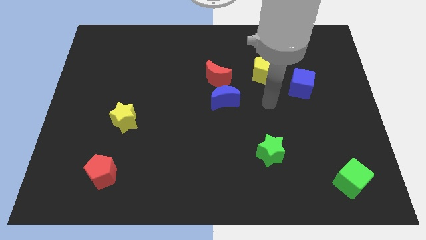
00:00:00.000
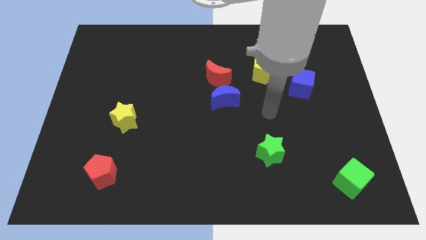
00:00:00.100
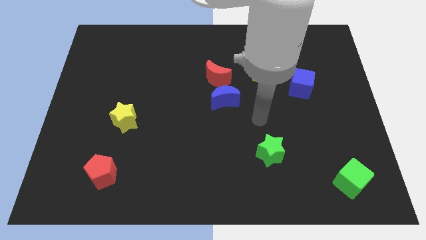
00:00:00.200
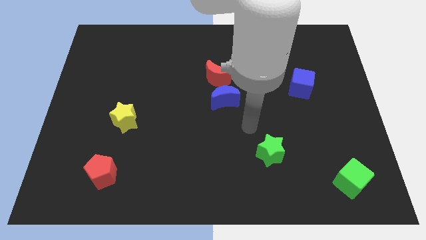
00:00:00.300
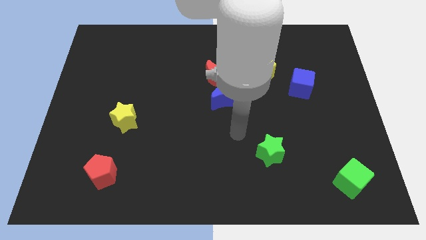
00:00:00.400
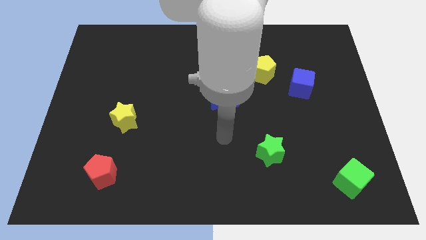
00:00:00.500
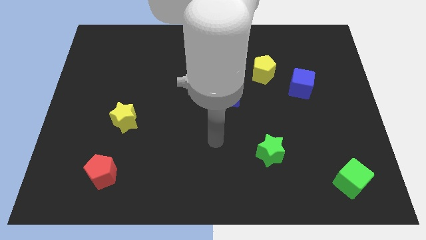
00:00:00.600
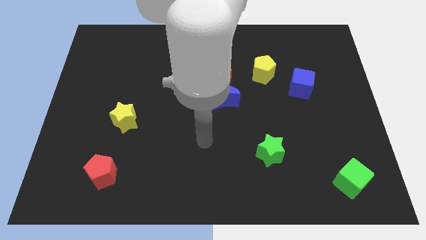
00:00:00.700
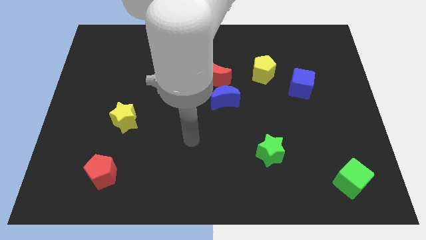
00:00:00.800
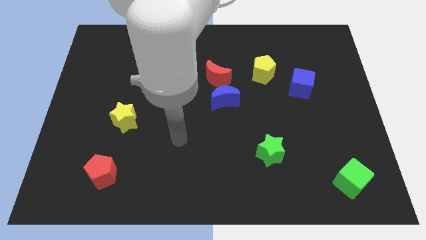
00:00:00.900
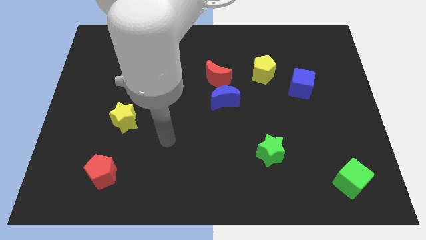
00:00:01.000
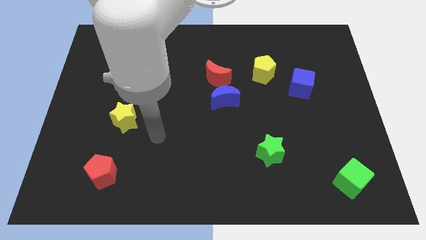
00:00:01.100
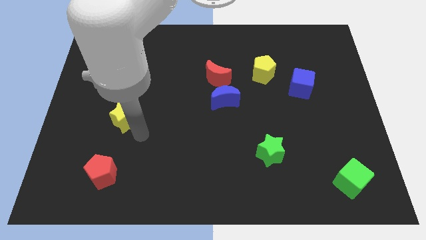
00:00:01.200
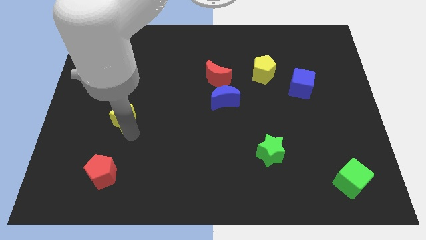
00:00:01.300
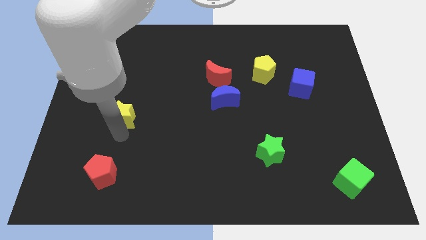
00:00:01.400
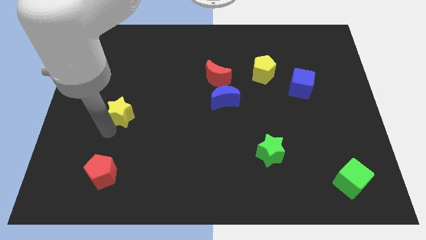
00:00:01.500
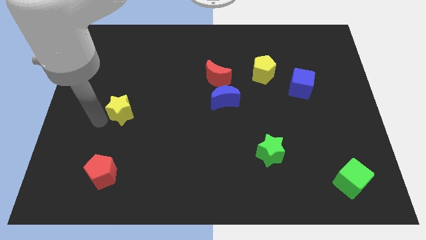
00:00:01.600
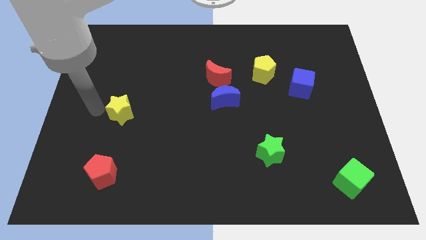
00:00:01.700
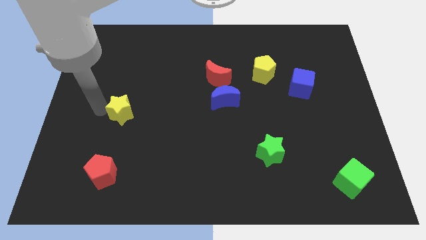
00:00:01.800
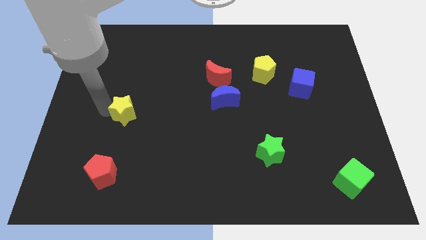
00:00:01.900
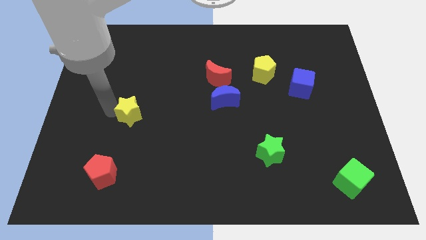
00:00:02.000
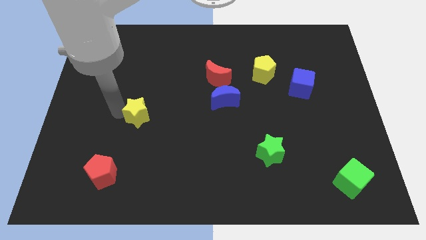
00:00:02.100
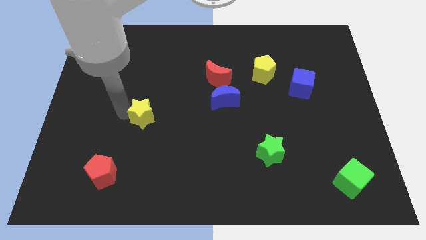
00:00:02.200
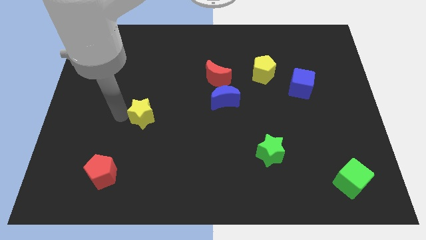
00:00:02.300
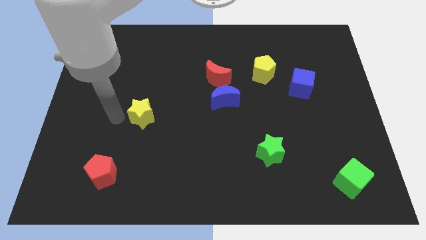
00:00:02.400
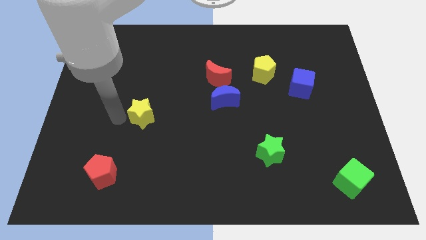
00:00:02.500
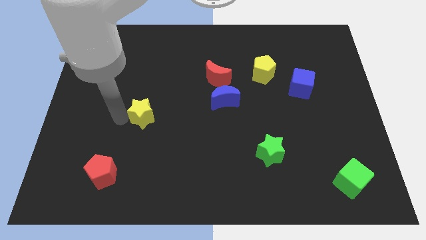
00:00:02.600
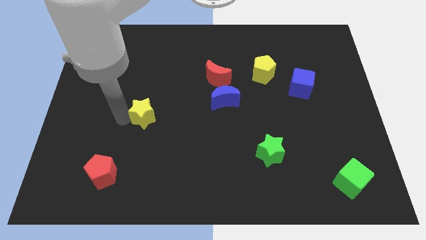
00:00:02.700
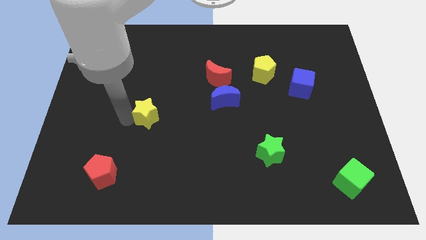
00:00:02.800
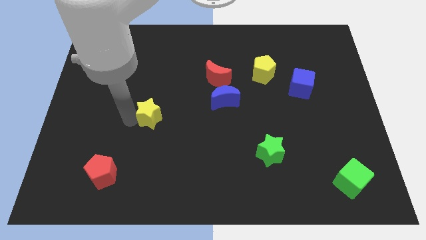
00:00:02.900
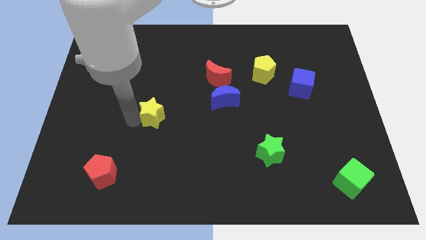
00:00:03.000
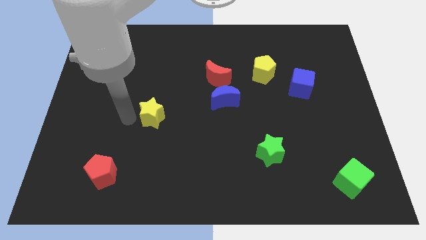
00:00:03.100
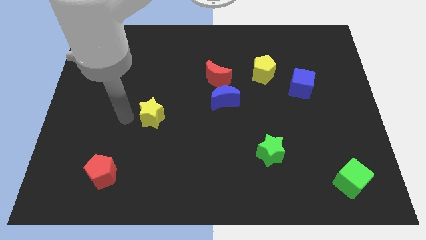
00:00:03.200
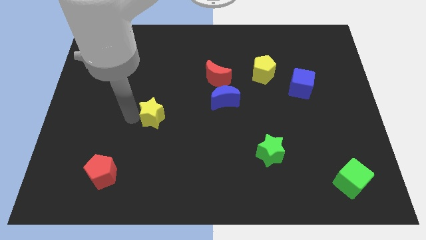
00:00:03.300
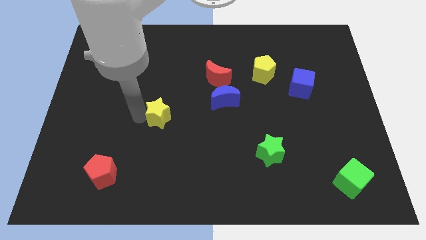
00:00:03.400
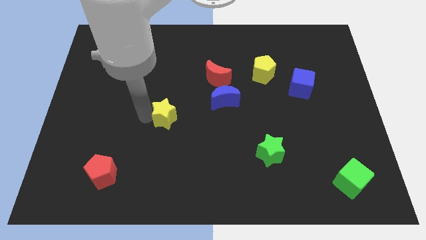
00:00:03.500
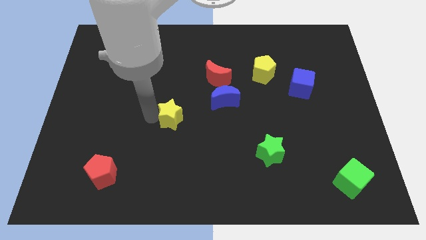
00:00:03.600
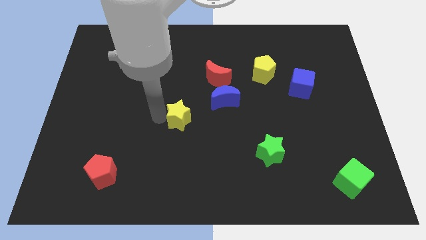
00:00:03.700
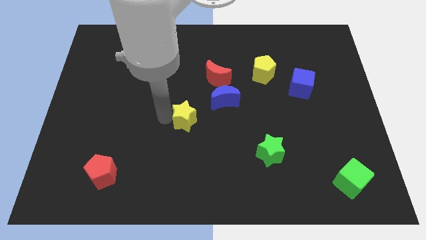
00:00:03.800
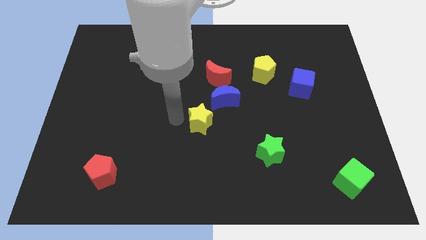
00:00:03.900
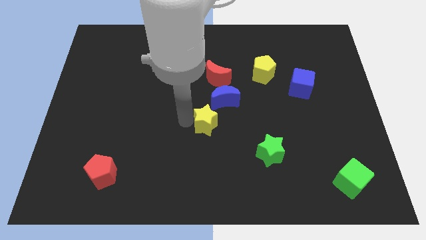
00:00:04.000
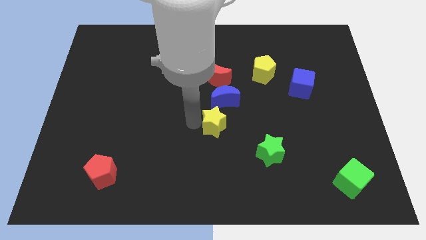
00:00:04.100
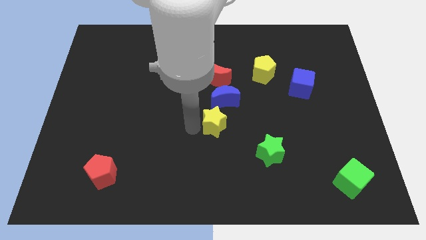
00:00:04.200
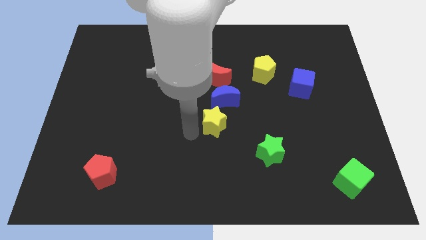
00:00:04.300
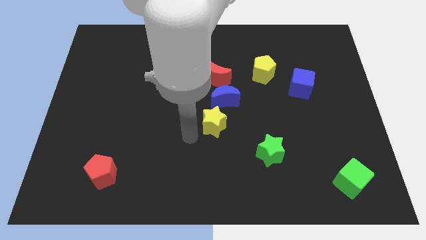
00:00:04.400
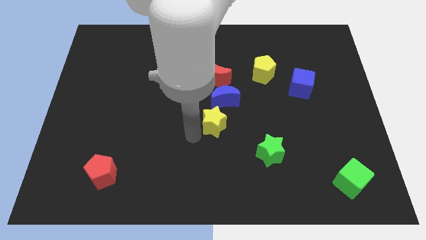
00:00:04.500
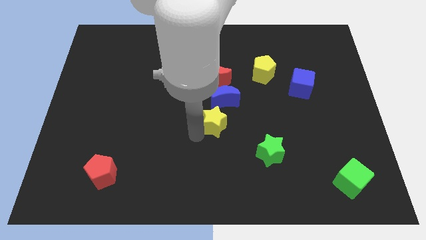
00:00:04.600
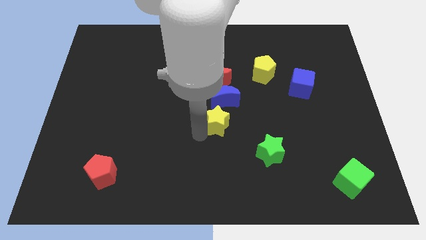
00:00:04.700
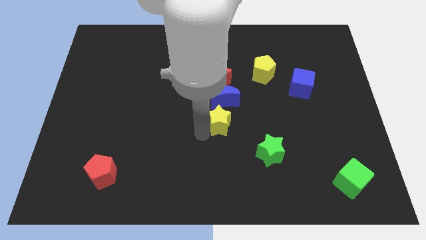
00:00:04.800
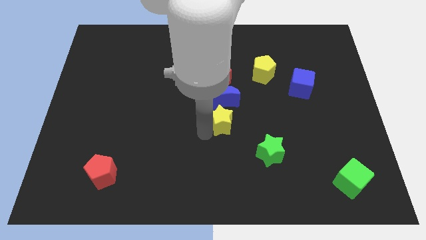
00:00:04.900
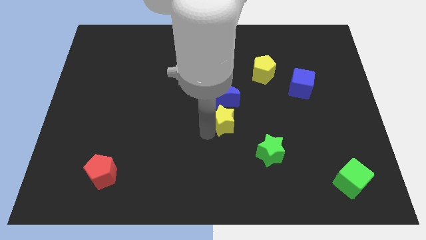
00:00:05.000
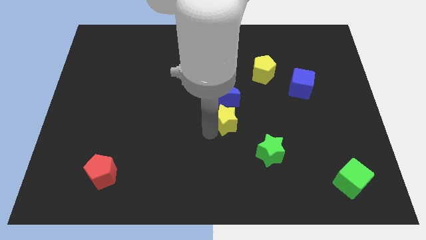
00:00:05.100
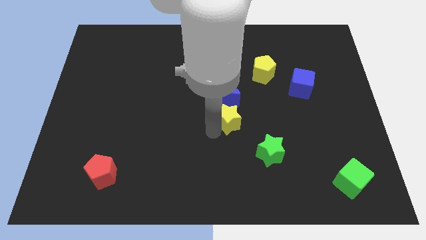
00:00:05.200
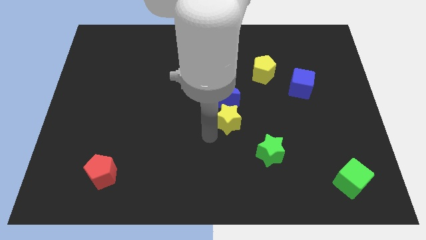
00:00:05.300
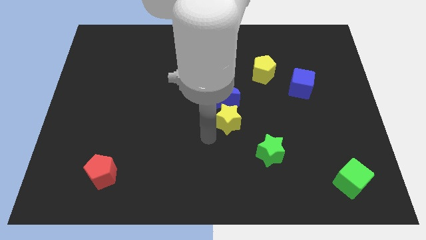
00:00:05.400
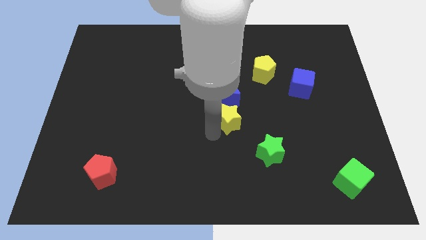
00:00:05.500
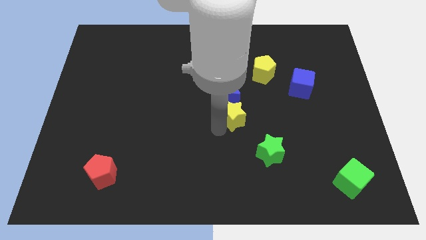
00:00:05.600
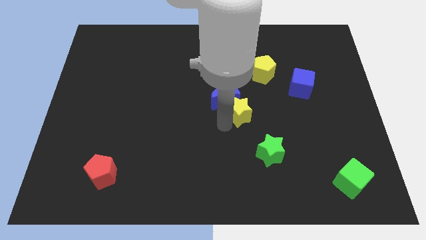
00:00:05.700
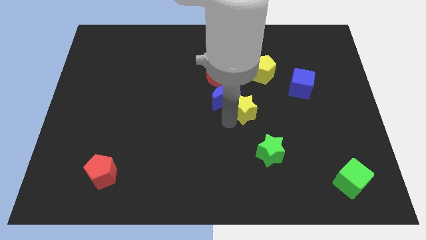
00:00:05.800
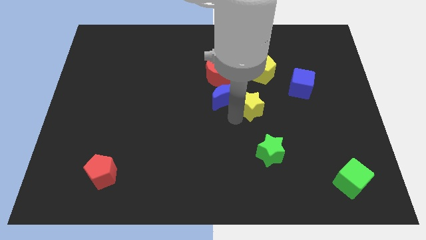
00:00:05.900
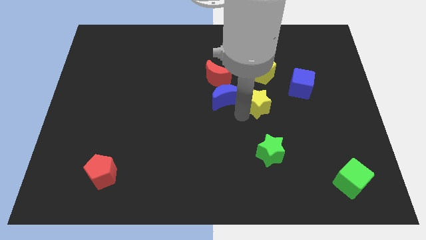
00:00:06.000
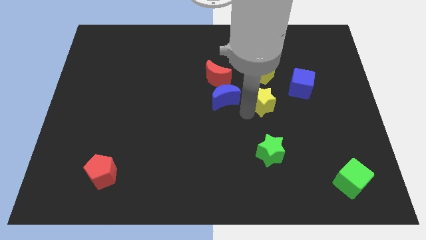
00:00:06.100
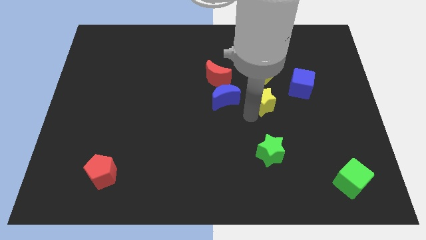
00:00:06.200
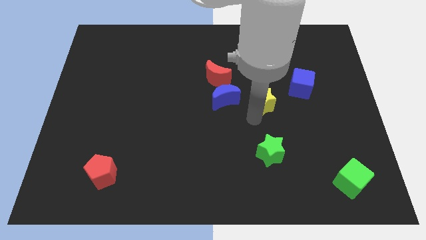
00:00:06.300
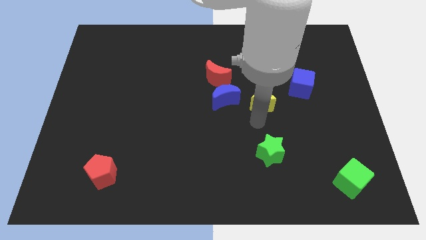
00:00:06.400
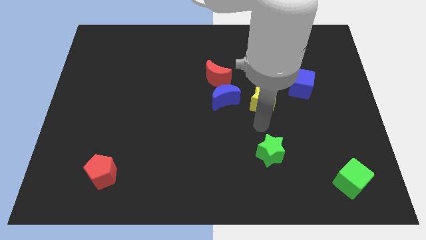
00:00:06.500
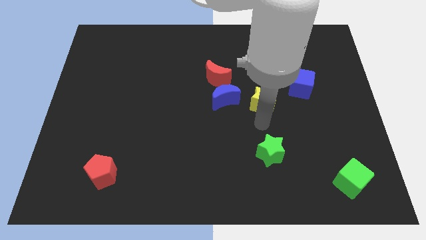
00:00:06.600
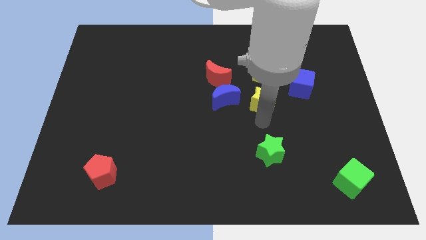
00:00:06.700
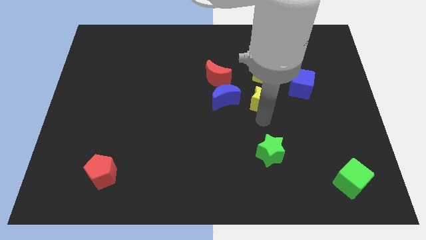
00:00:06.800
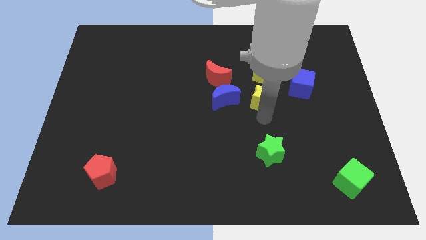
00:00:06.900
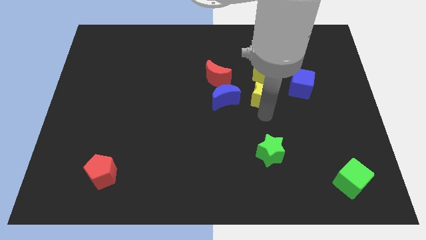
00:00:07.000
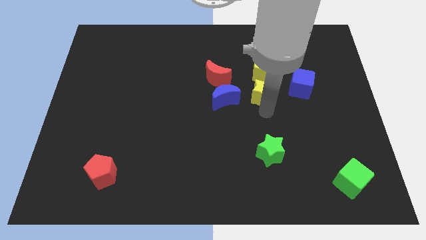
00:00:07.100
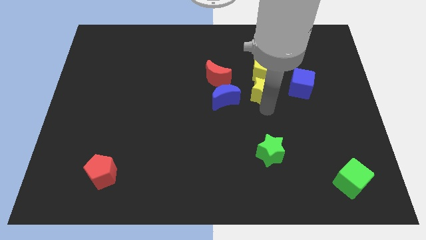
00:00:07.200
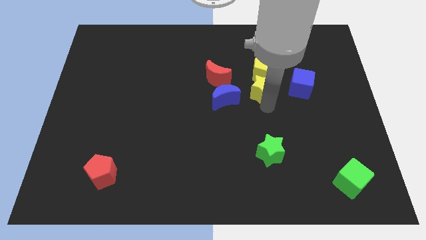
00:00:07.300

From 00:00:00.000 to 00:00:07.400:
slide the yellow star next to the yellow pentagon
